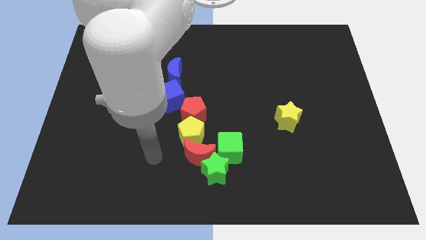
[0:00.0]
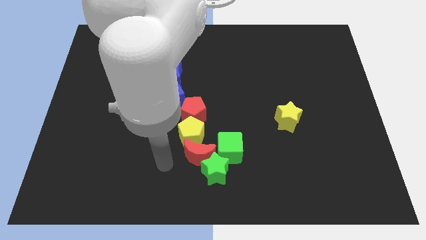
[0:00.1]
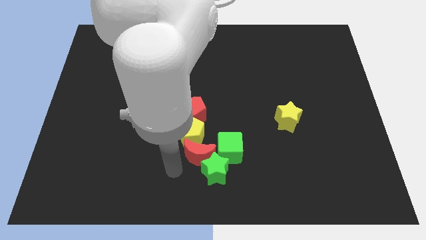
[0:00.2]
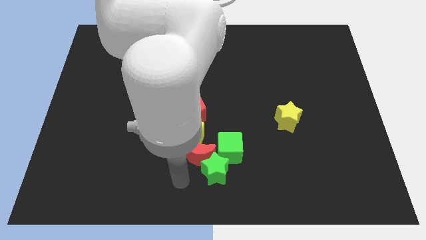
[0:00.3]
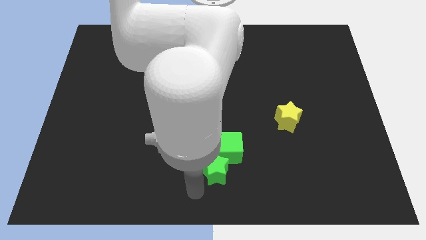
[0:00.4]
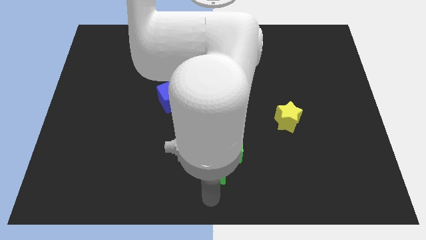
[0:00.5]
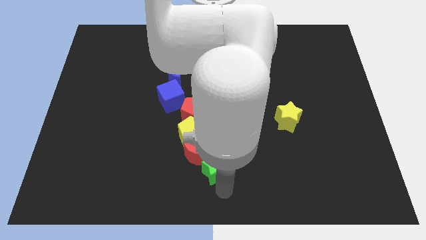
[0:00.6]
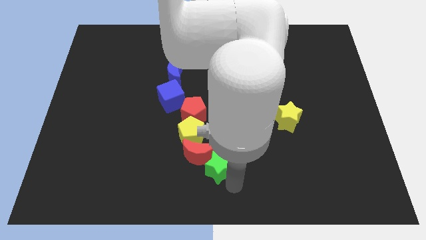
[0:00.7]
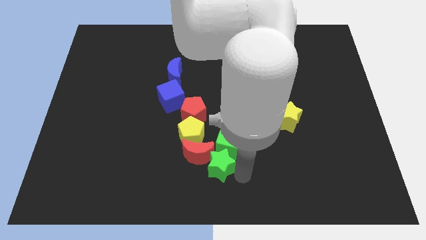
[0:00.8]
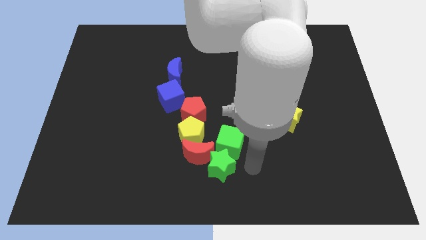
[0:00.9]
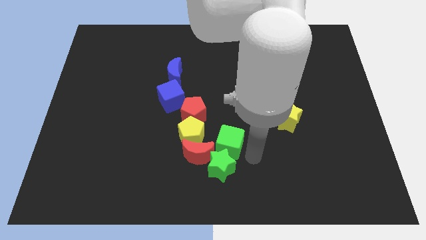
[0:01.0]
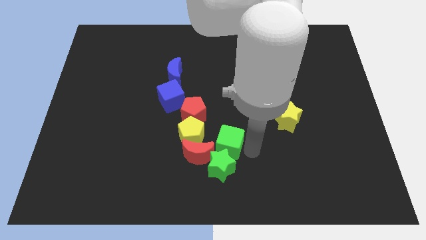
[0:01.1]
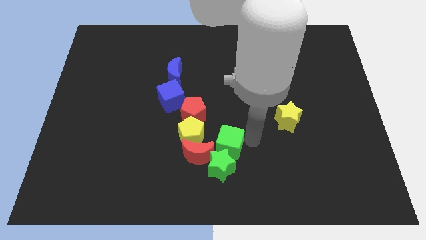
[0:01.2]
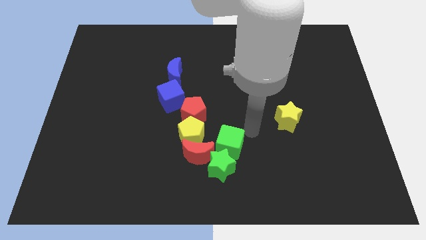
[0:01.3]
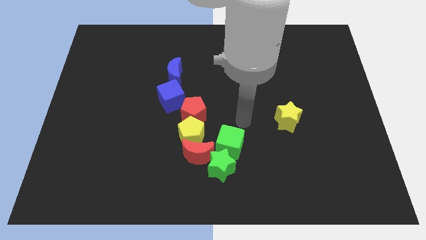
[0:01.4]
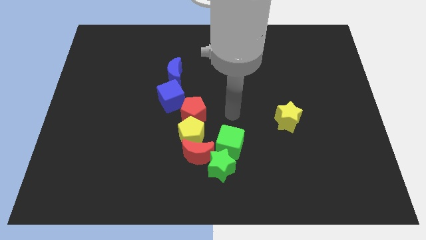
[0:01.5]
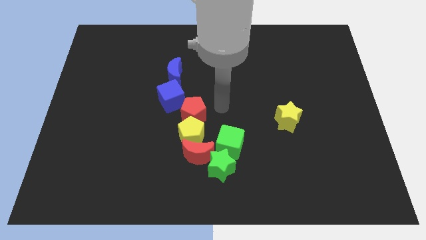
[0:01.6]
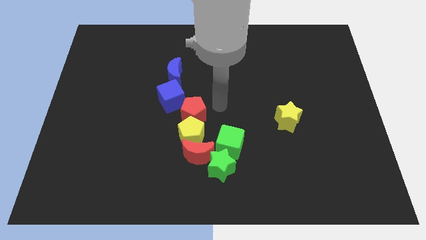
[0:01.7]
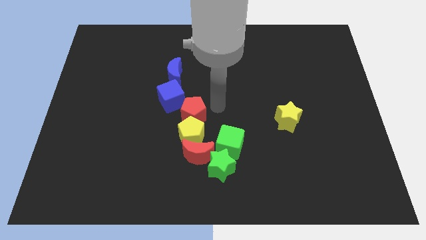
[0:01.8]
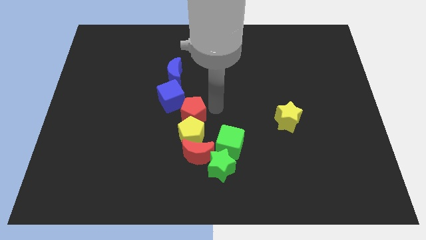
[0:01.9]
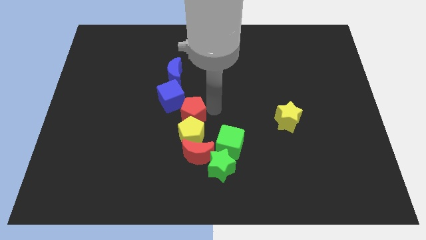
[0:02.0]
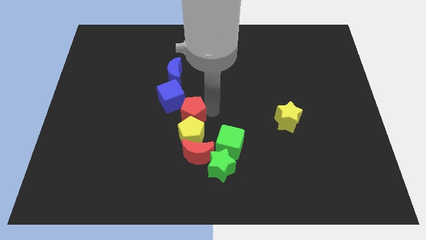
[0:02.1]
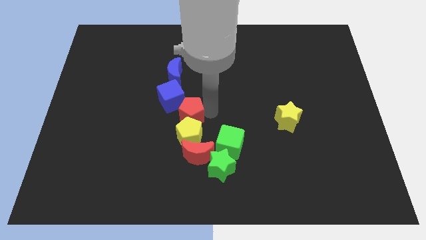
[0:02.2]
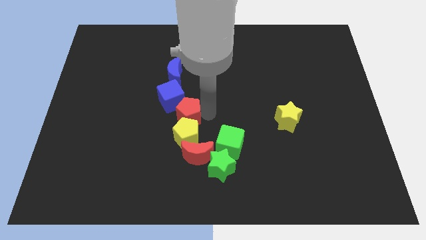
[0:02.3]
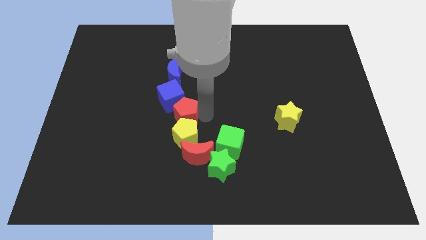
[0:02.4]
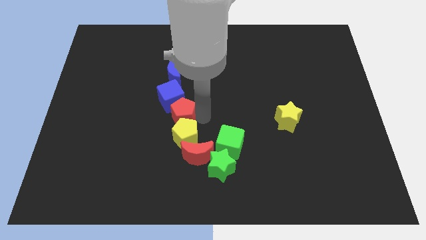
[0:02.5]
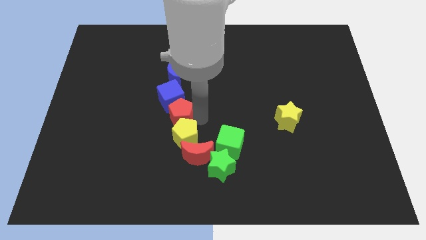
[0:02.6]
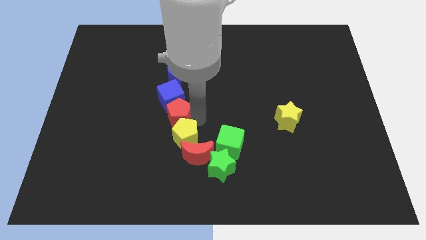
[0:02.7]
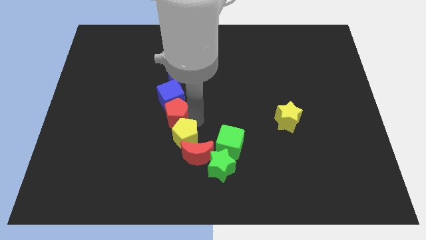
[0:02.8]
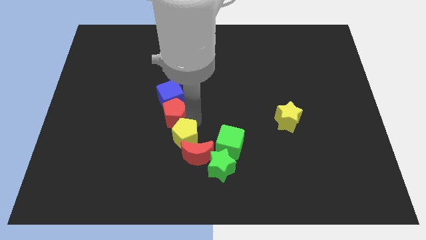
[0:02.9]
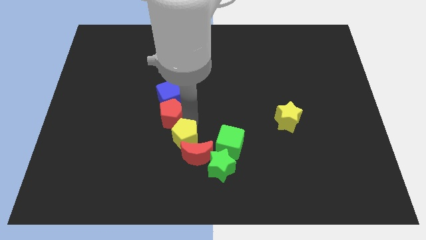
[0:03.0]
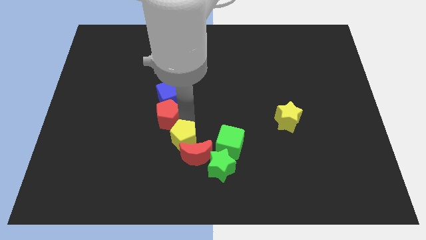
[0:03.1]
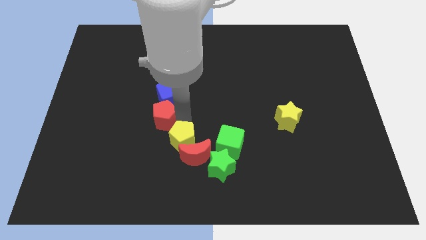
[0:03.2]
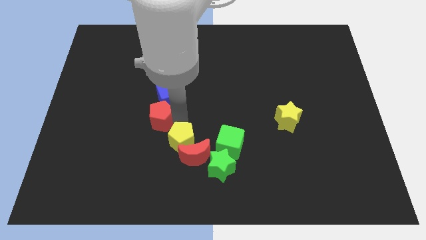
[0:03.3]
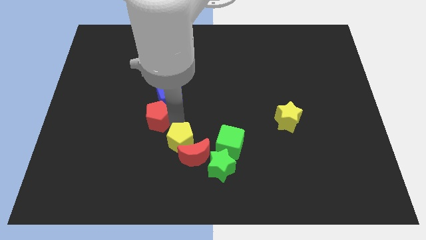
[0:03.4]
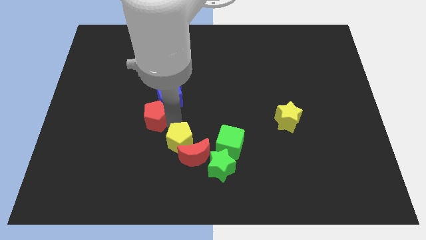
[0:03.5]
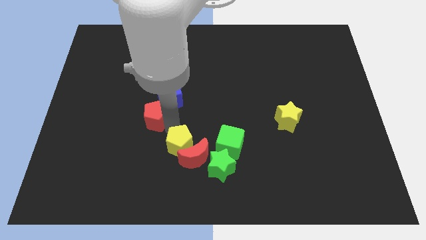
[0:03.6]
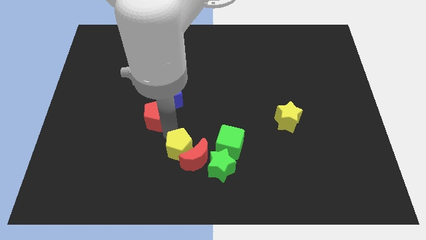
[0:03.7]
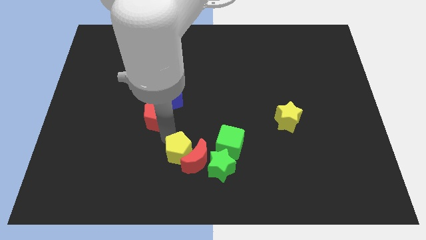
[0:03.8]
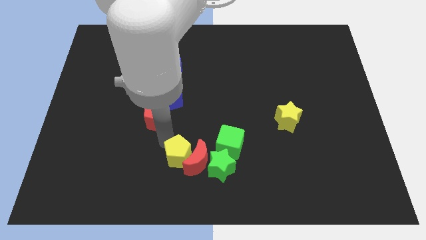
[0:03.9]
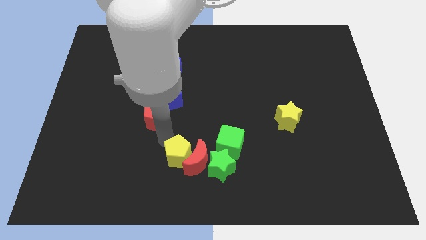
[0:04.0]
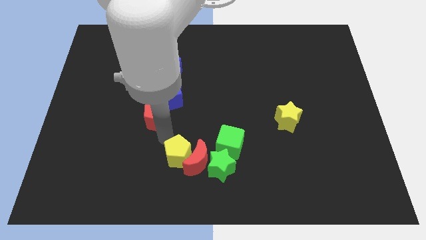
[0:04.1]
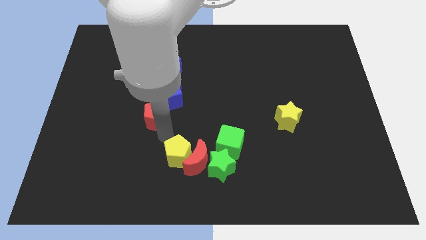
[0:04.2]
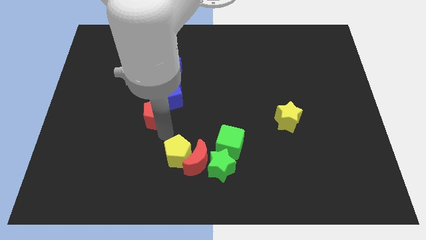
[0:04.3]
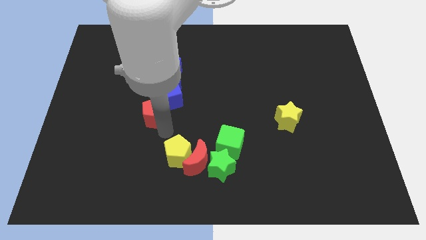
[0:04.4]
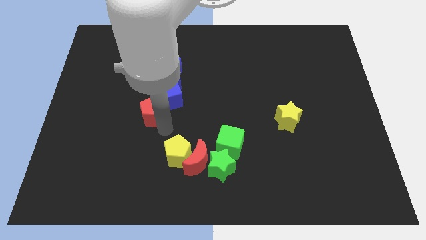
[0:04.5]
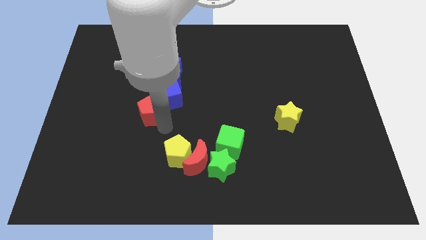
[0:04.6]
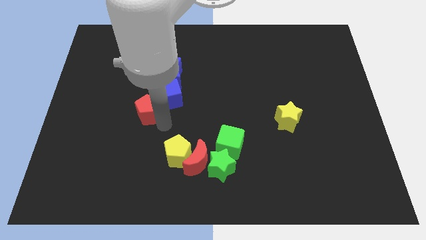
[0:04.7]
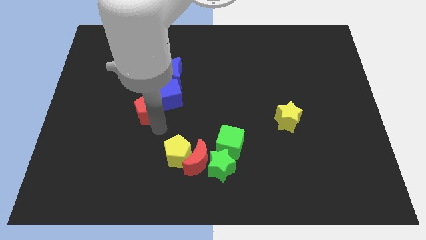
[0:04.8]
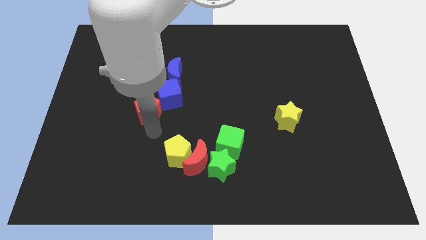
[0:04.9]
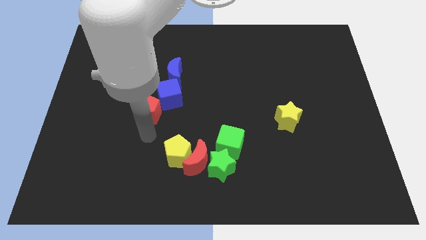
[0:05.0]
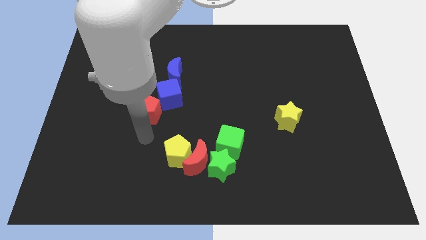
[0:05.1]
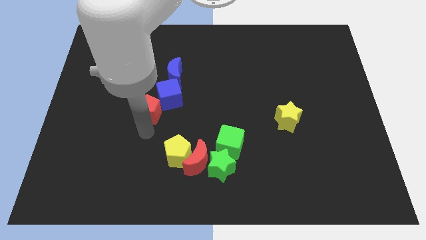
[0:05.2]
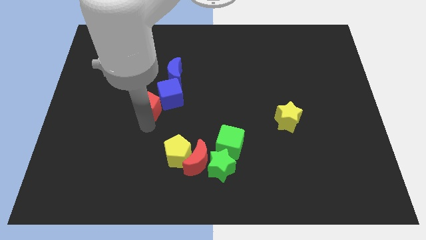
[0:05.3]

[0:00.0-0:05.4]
move the red pentagon diagonally down and to the left of the blue moon

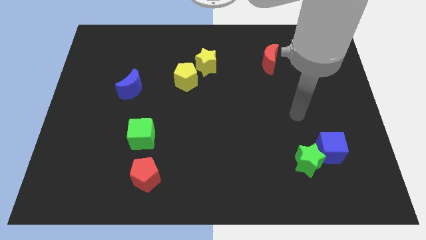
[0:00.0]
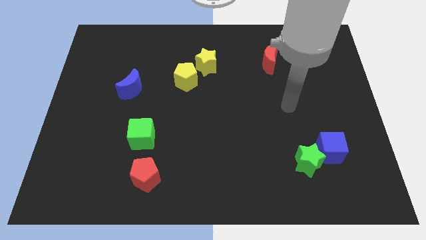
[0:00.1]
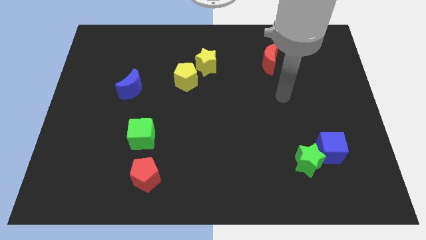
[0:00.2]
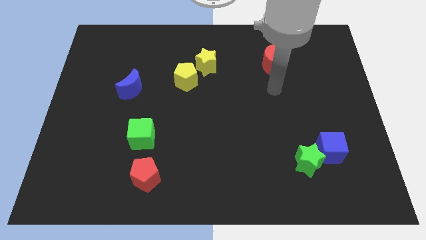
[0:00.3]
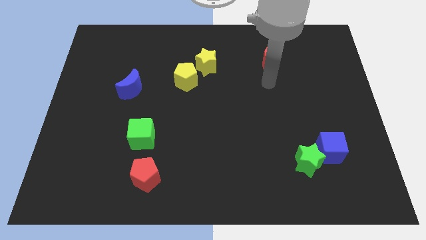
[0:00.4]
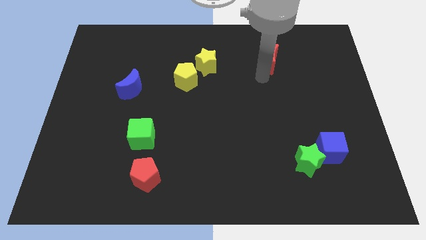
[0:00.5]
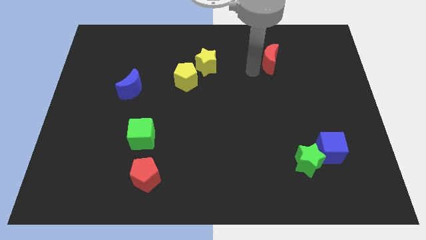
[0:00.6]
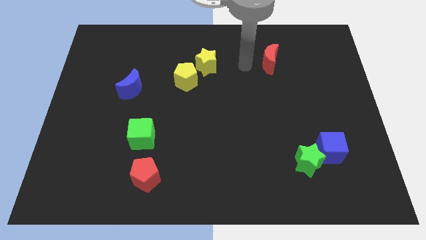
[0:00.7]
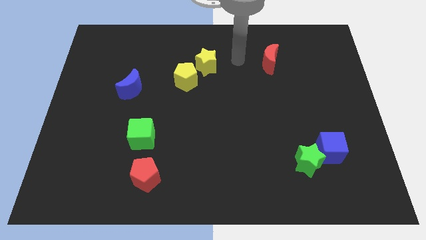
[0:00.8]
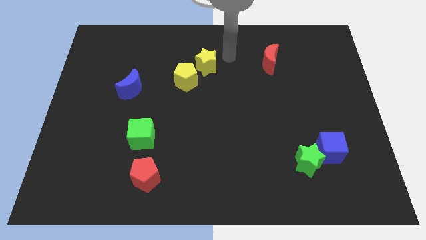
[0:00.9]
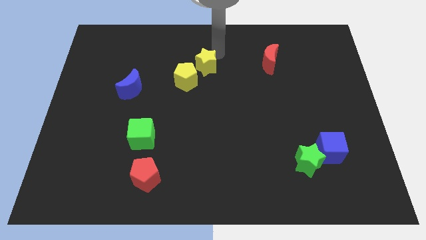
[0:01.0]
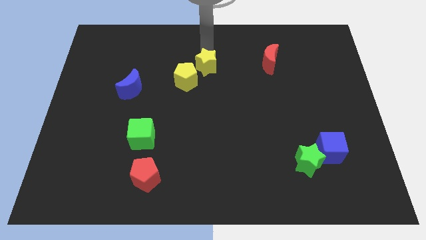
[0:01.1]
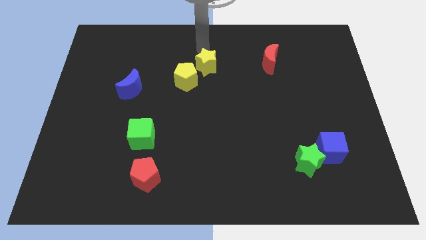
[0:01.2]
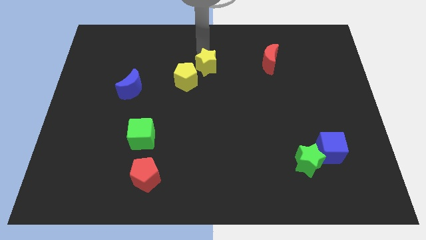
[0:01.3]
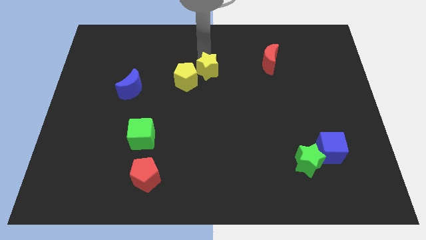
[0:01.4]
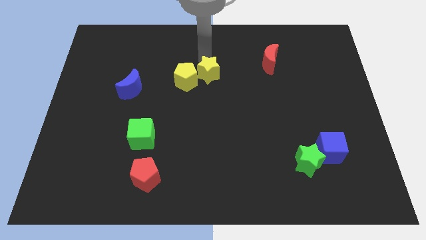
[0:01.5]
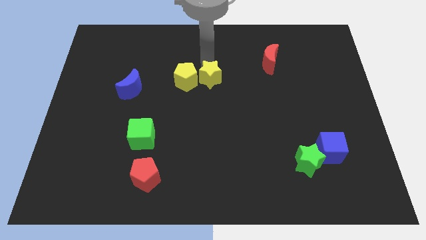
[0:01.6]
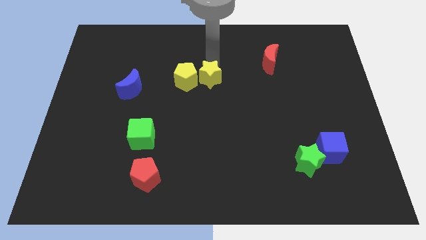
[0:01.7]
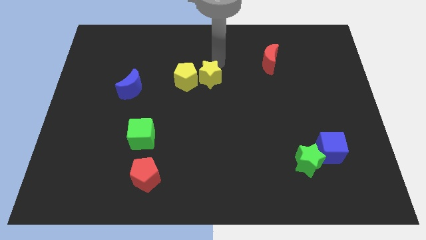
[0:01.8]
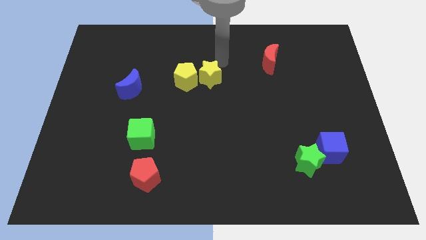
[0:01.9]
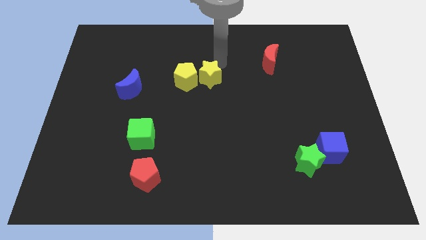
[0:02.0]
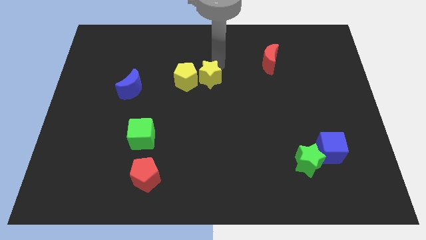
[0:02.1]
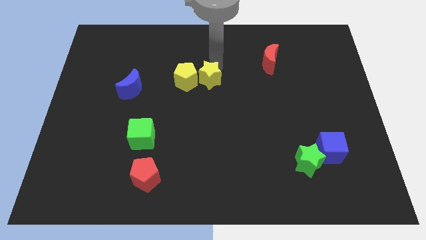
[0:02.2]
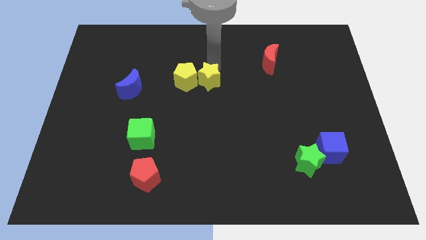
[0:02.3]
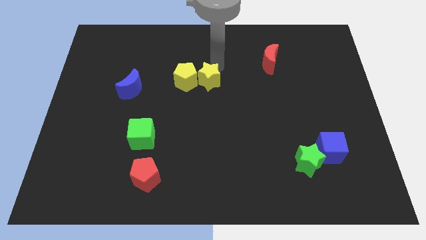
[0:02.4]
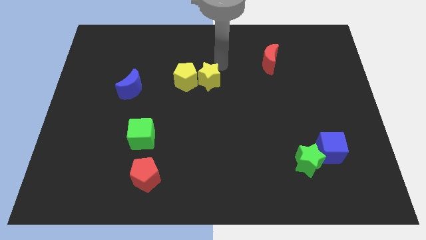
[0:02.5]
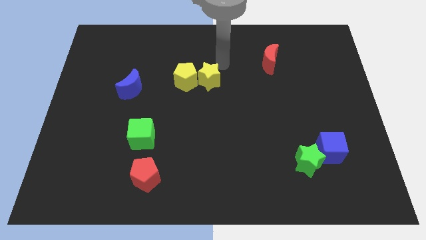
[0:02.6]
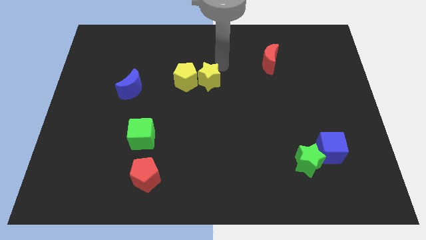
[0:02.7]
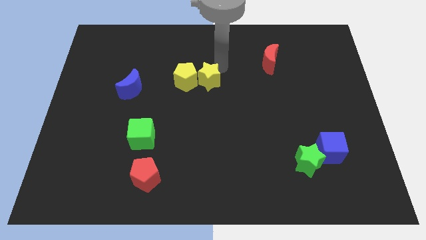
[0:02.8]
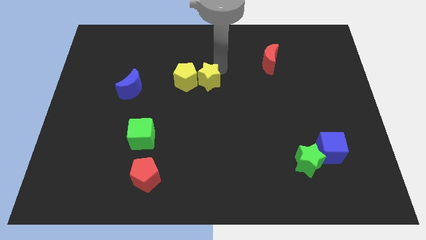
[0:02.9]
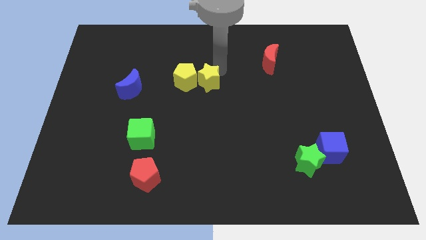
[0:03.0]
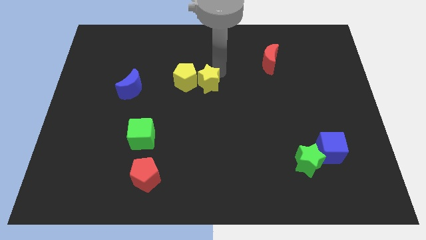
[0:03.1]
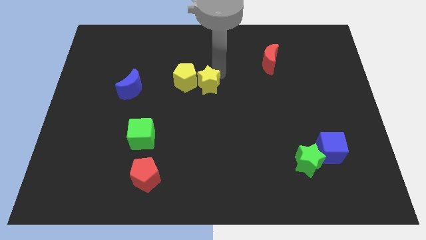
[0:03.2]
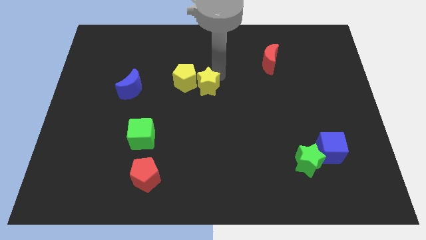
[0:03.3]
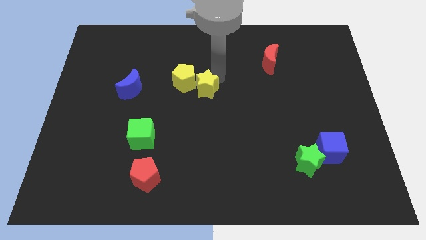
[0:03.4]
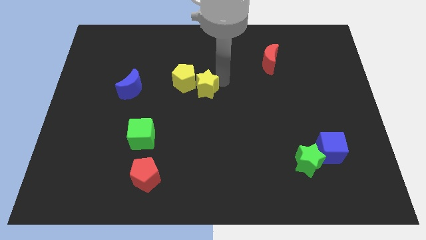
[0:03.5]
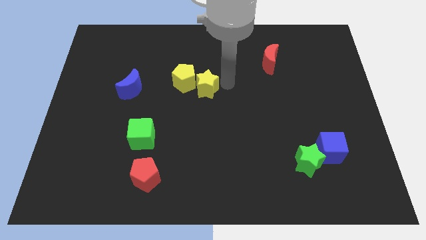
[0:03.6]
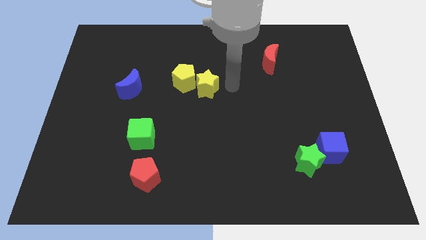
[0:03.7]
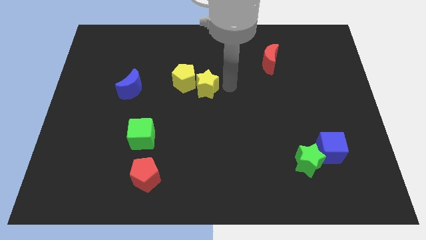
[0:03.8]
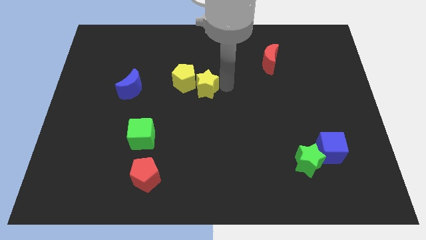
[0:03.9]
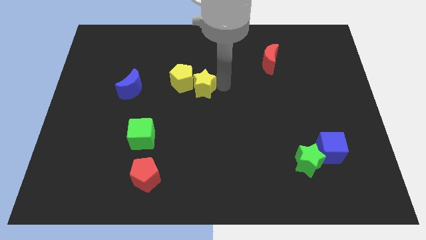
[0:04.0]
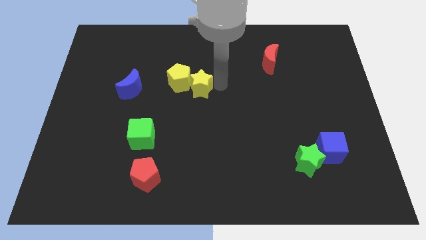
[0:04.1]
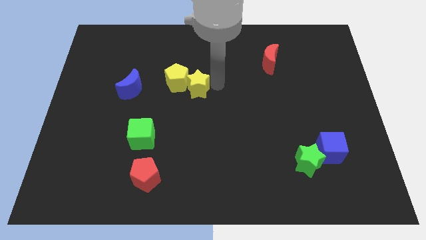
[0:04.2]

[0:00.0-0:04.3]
push the yellow star to the right side of the blue moon
